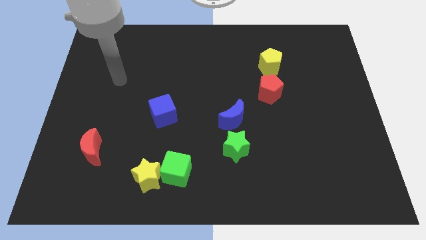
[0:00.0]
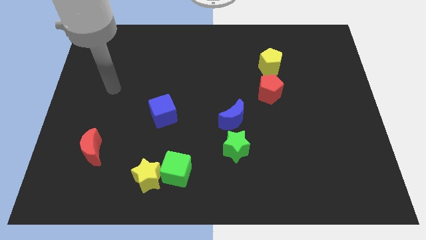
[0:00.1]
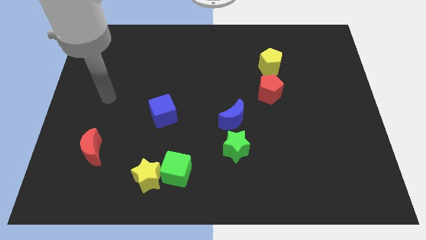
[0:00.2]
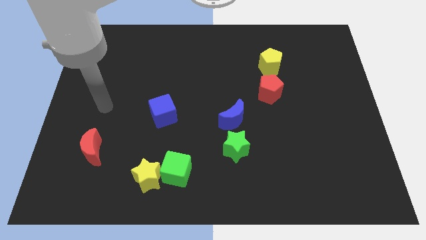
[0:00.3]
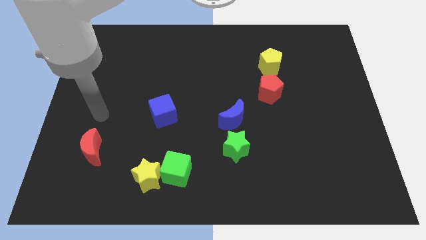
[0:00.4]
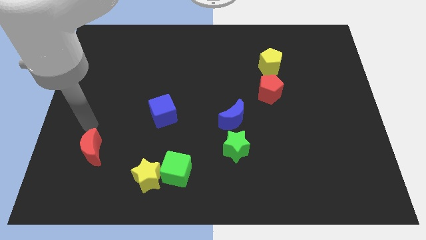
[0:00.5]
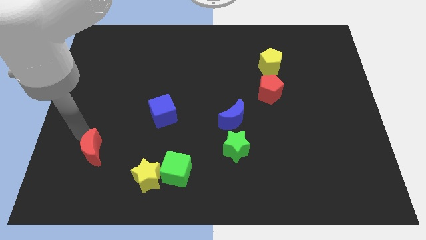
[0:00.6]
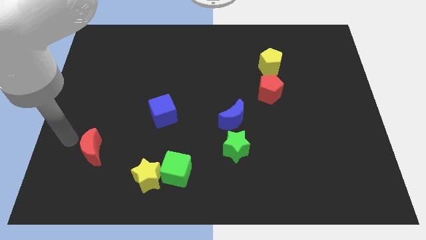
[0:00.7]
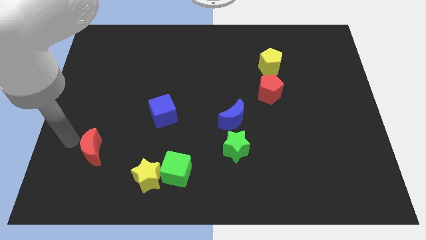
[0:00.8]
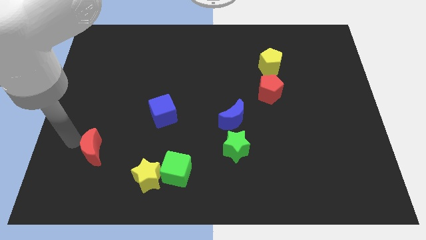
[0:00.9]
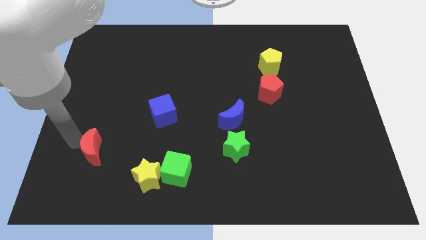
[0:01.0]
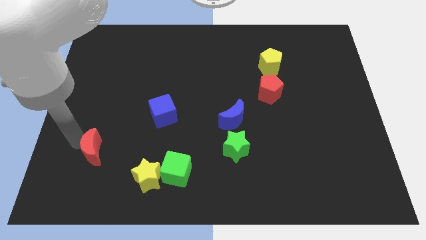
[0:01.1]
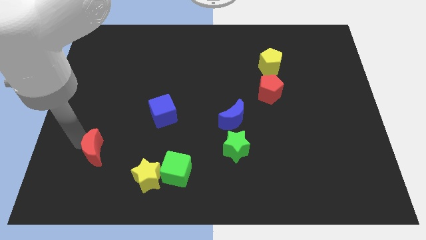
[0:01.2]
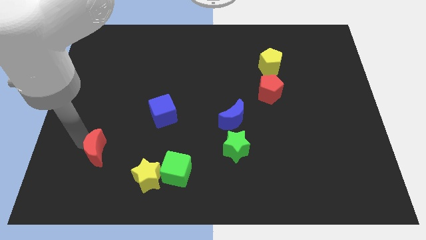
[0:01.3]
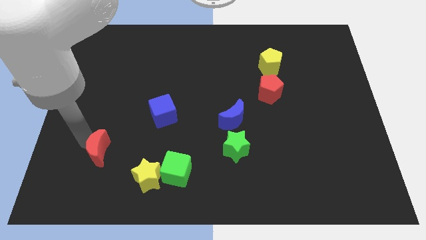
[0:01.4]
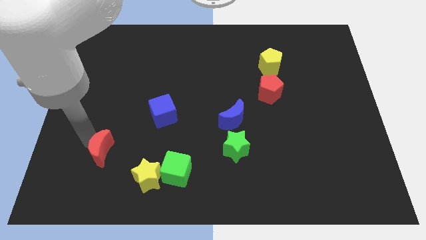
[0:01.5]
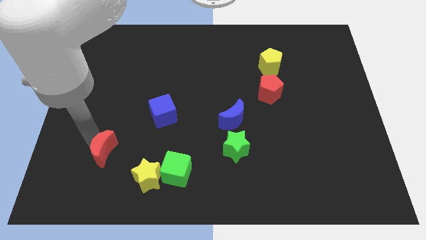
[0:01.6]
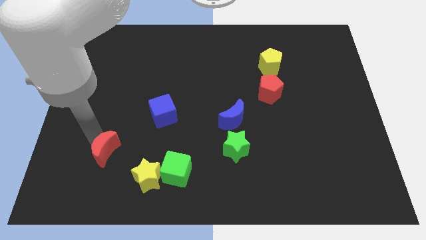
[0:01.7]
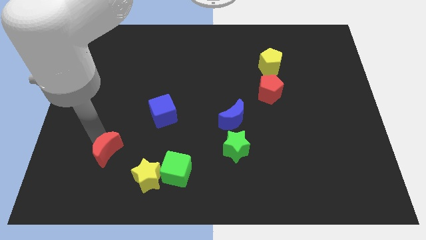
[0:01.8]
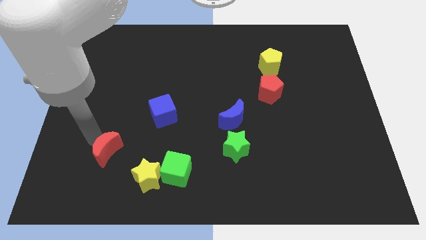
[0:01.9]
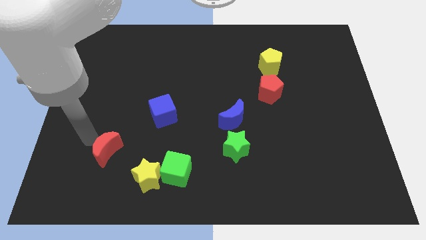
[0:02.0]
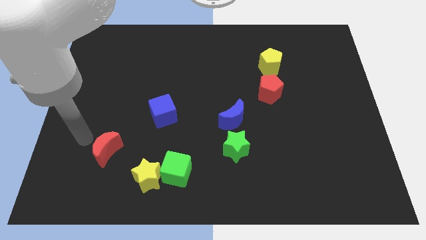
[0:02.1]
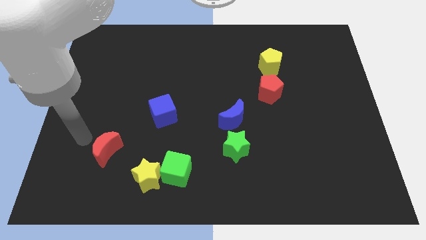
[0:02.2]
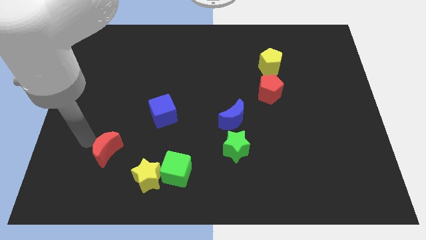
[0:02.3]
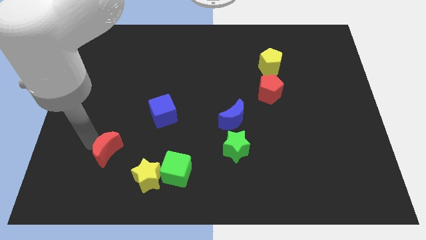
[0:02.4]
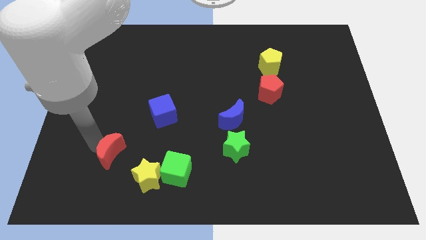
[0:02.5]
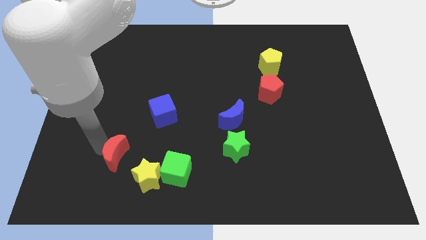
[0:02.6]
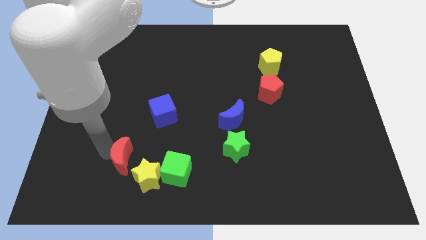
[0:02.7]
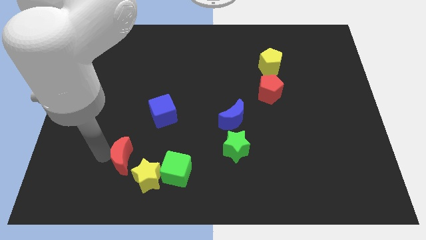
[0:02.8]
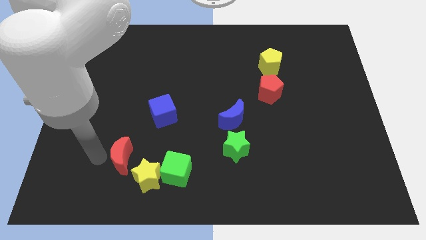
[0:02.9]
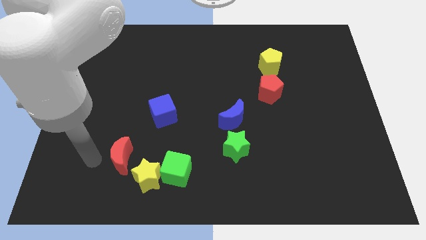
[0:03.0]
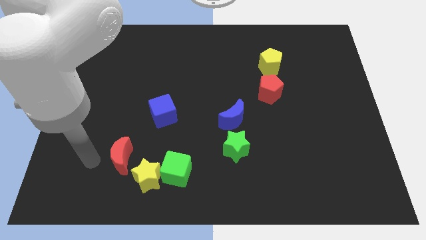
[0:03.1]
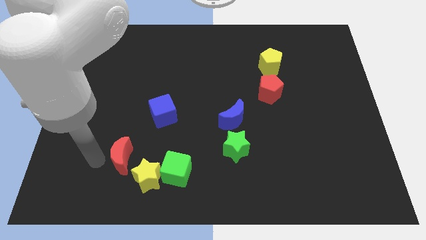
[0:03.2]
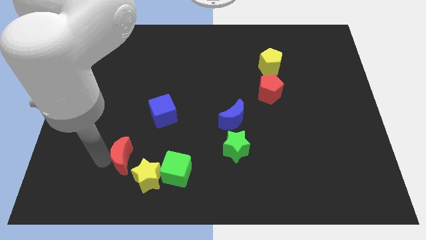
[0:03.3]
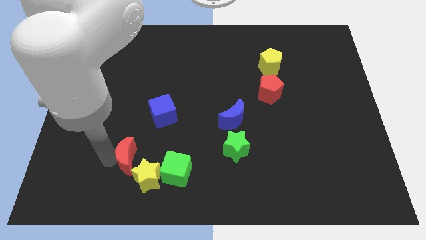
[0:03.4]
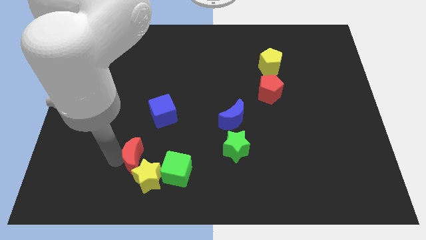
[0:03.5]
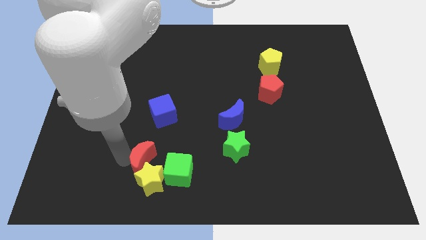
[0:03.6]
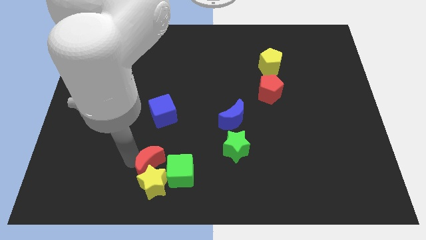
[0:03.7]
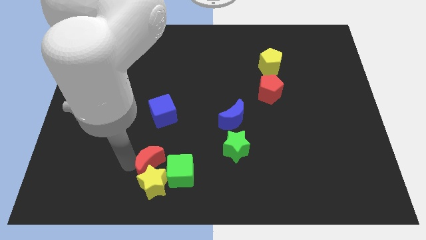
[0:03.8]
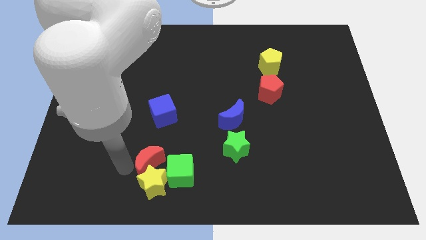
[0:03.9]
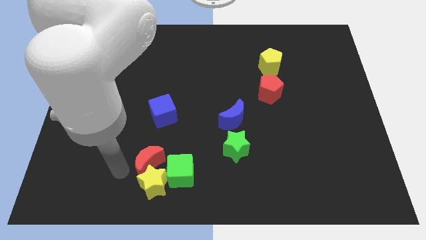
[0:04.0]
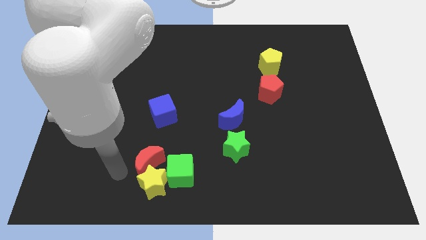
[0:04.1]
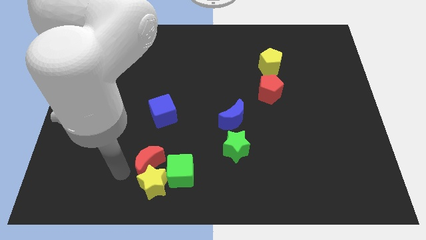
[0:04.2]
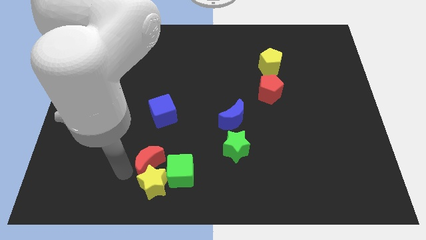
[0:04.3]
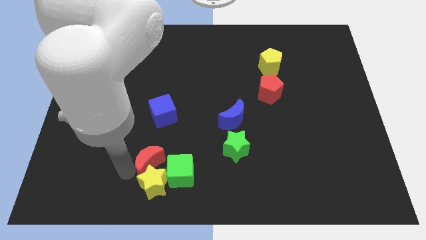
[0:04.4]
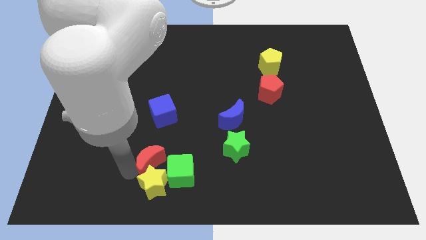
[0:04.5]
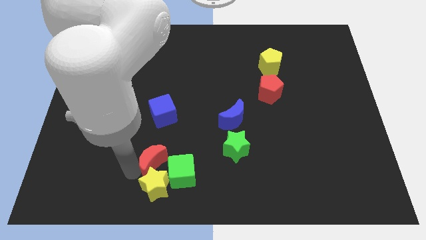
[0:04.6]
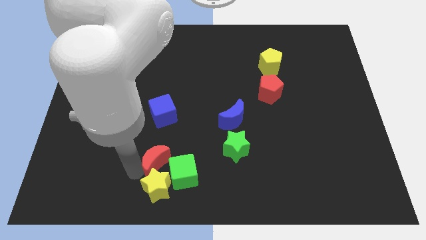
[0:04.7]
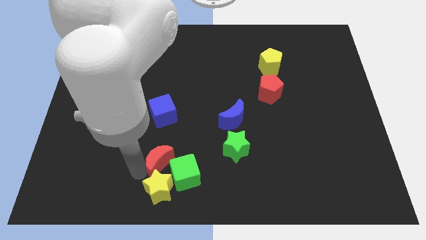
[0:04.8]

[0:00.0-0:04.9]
move the red moon to the green cube

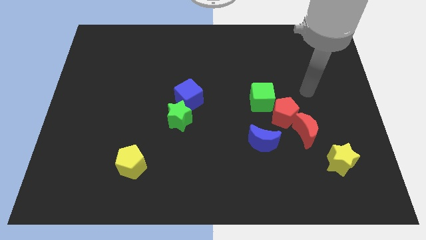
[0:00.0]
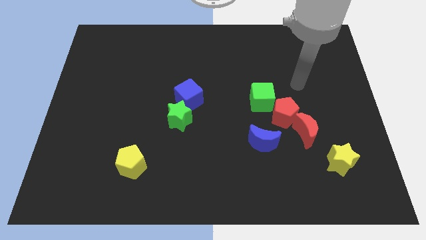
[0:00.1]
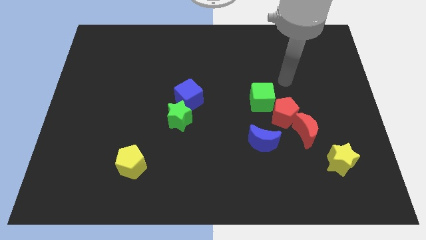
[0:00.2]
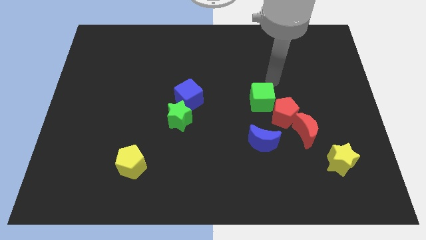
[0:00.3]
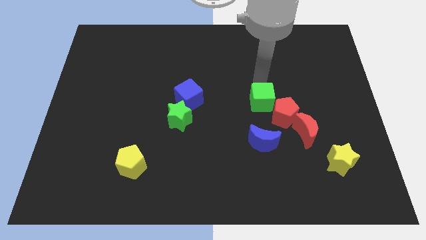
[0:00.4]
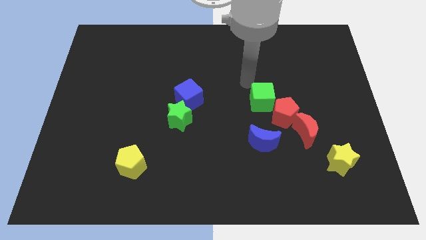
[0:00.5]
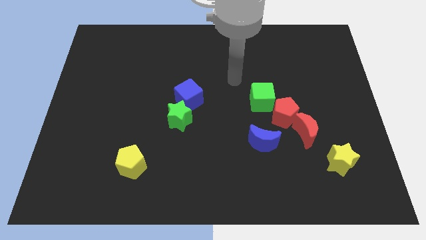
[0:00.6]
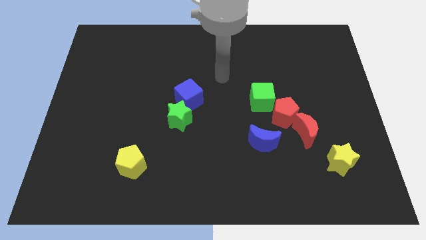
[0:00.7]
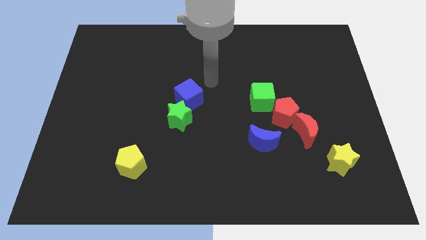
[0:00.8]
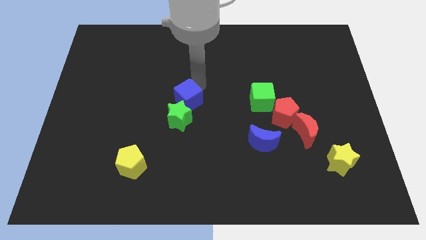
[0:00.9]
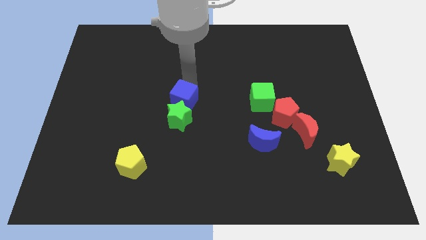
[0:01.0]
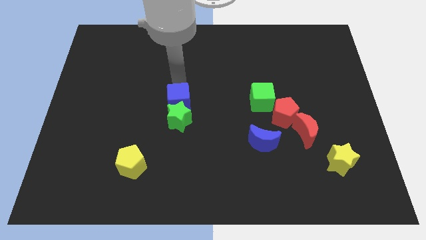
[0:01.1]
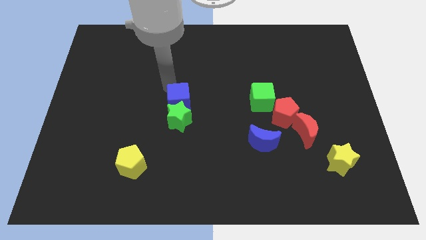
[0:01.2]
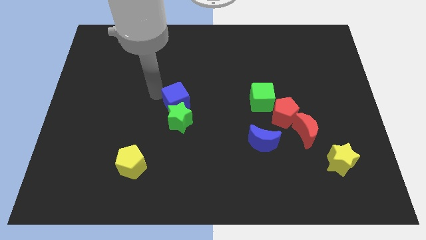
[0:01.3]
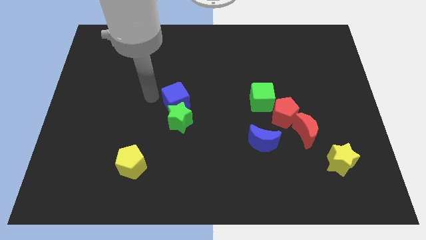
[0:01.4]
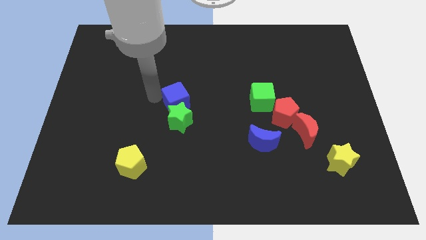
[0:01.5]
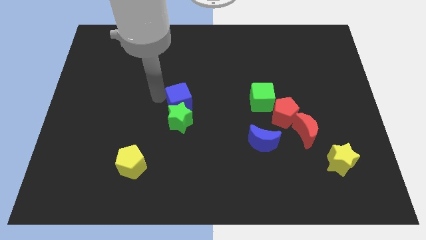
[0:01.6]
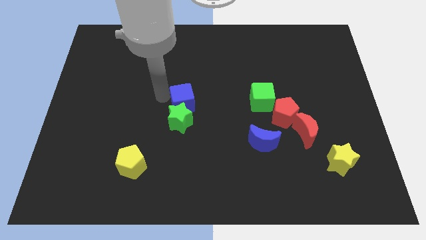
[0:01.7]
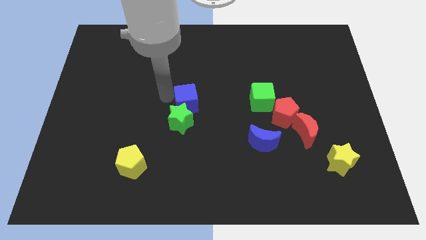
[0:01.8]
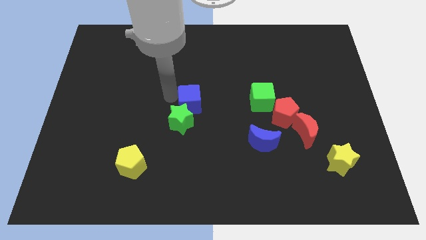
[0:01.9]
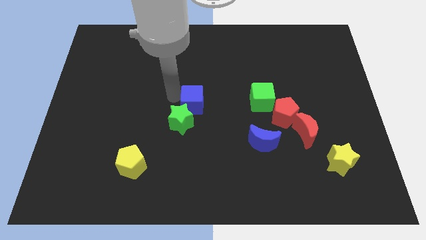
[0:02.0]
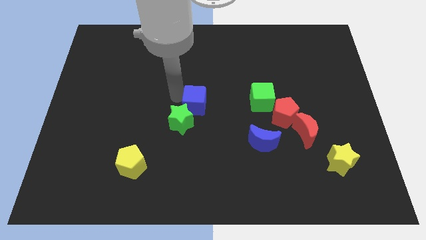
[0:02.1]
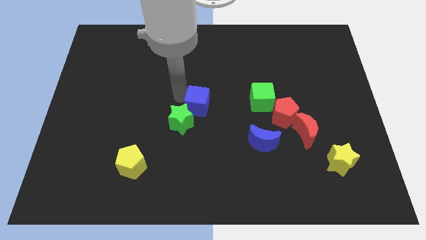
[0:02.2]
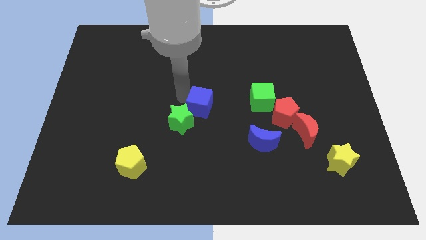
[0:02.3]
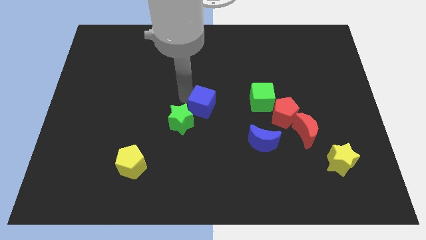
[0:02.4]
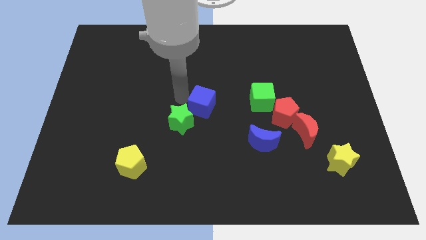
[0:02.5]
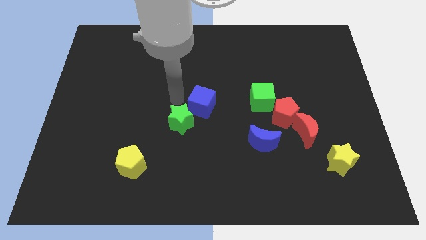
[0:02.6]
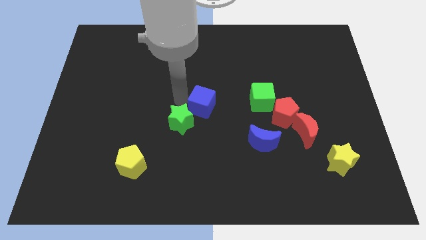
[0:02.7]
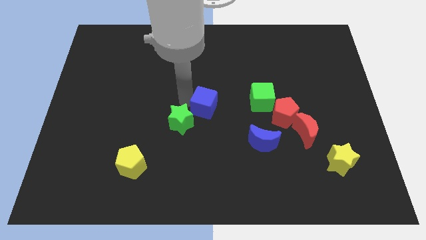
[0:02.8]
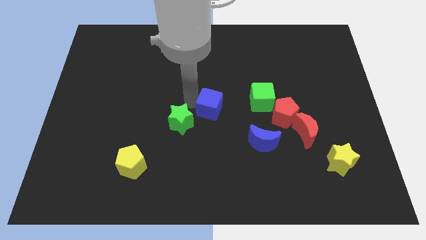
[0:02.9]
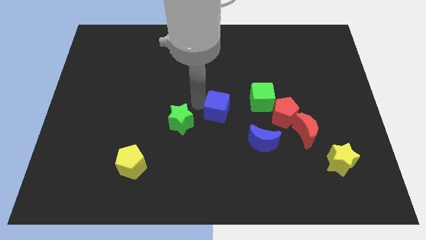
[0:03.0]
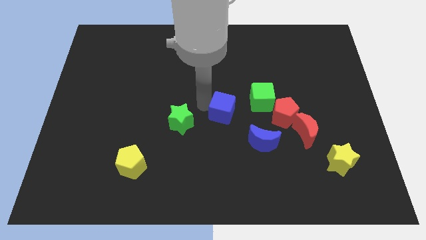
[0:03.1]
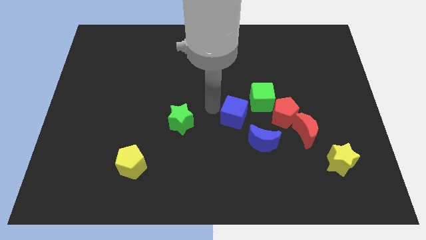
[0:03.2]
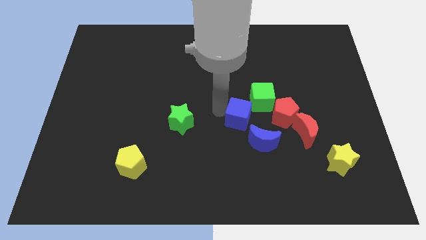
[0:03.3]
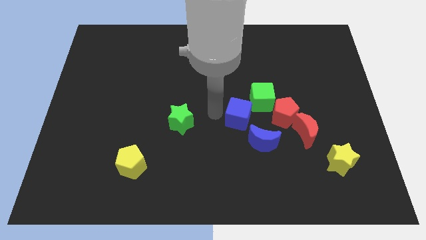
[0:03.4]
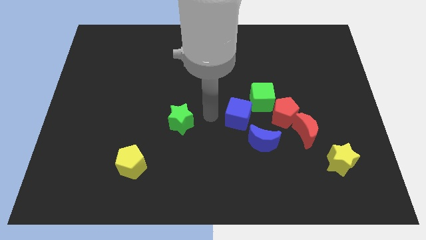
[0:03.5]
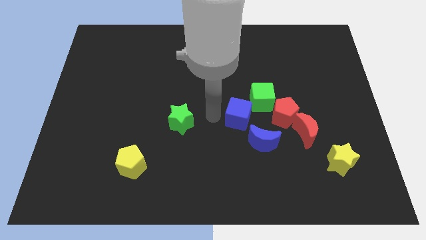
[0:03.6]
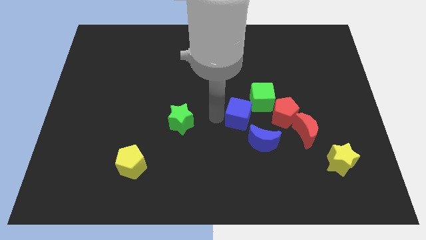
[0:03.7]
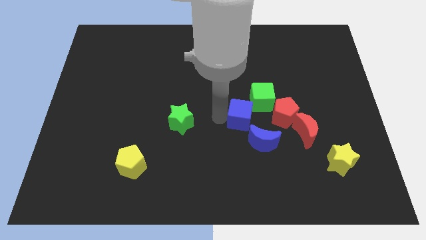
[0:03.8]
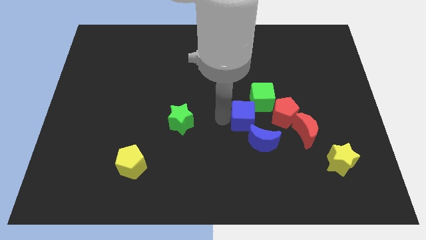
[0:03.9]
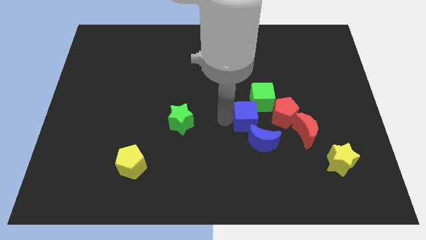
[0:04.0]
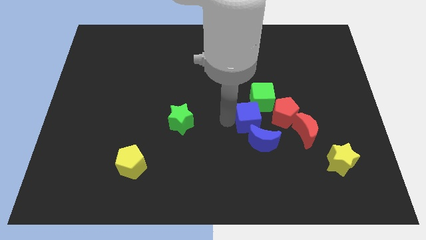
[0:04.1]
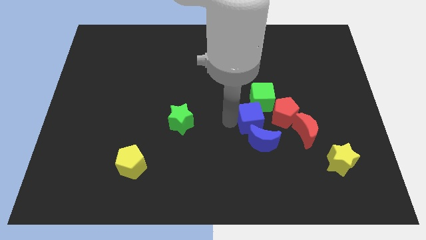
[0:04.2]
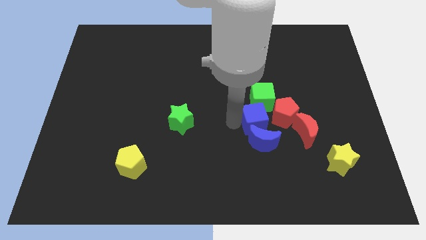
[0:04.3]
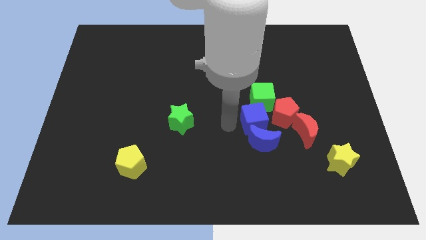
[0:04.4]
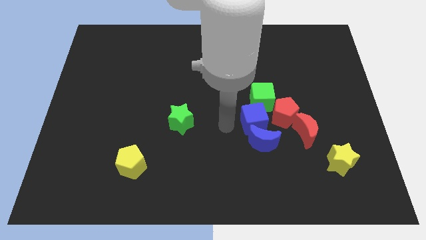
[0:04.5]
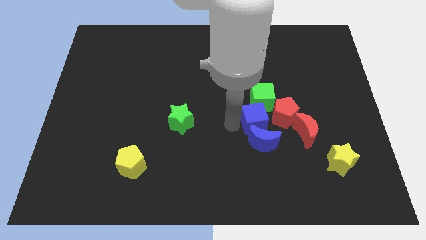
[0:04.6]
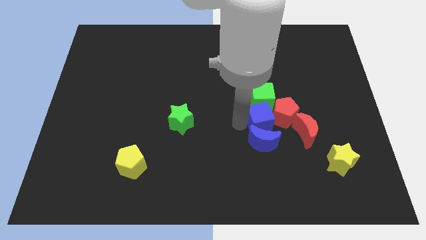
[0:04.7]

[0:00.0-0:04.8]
move the blue cube towards the red pentagon
